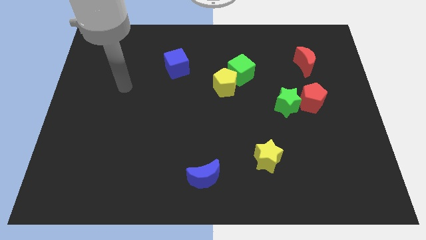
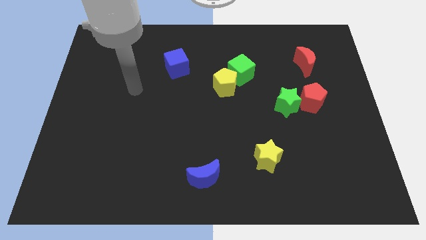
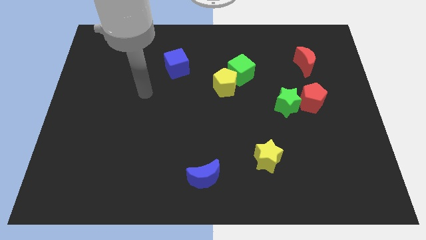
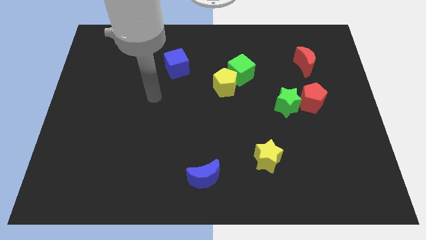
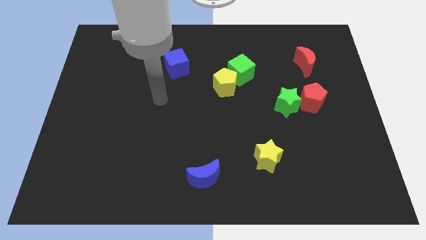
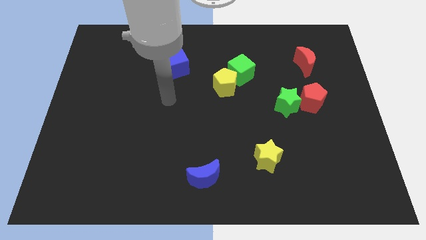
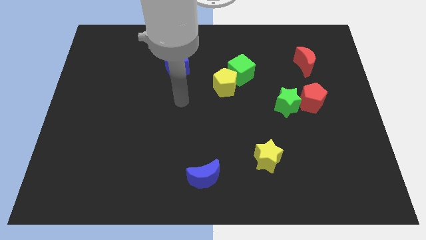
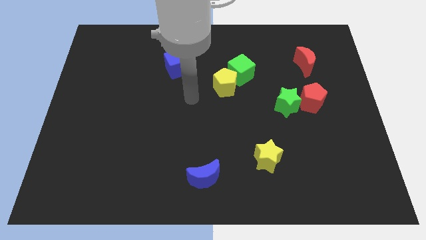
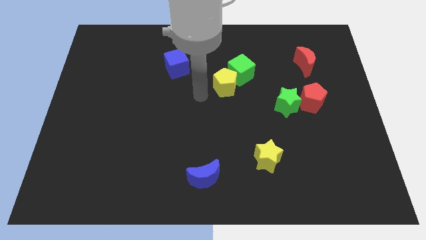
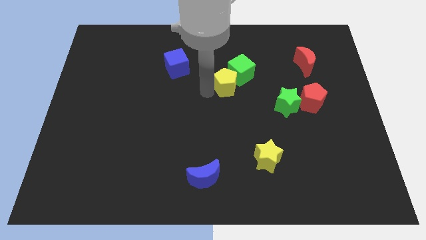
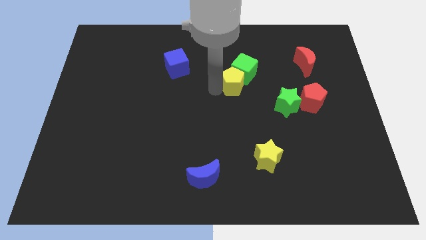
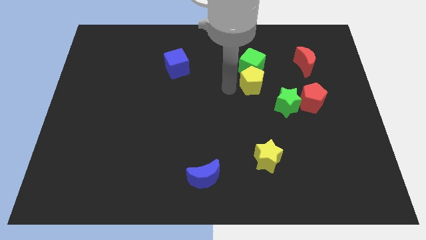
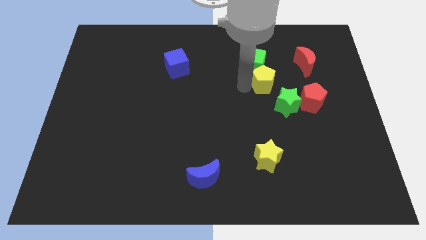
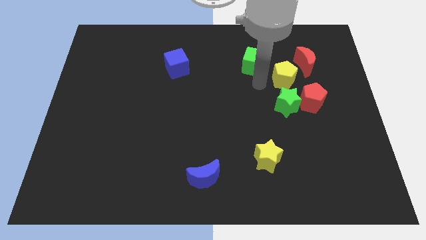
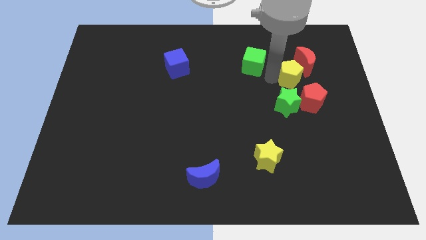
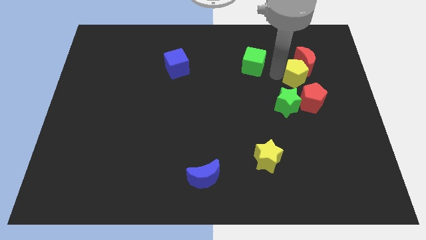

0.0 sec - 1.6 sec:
separate the green cube from the yellow pentagon

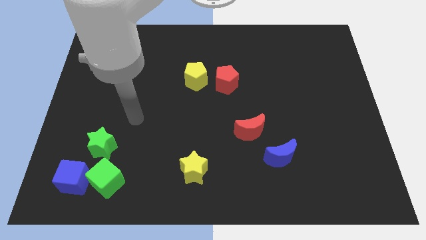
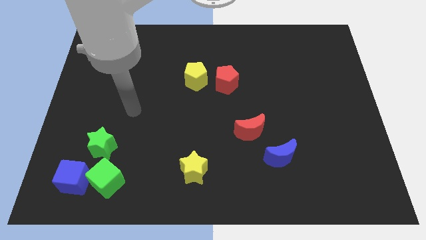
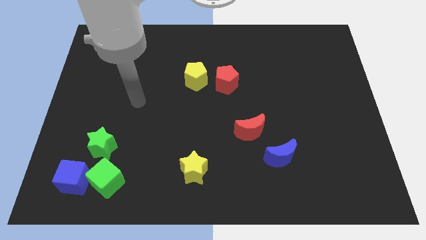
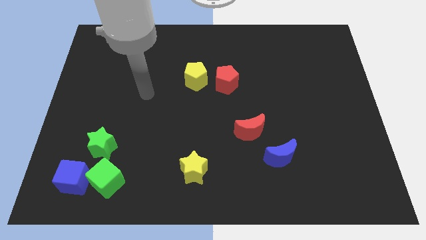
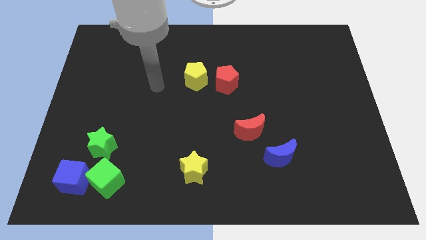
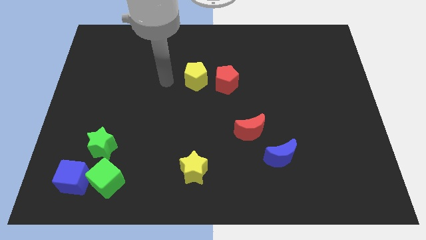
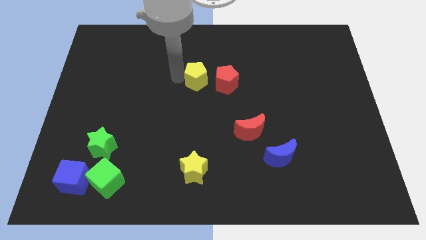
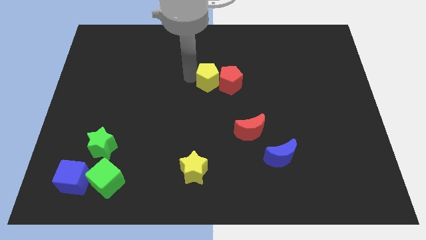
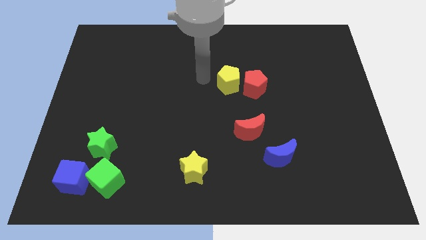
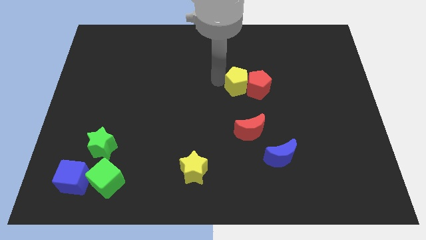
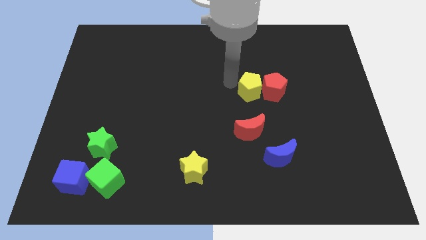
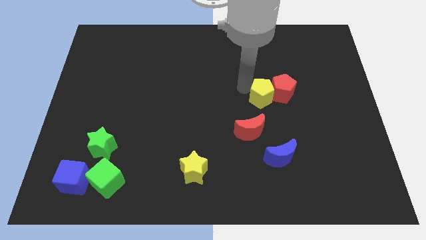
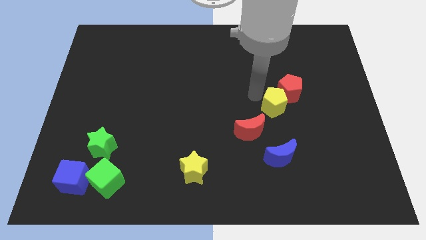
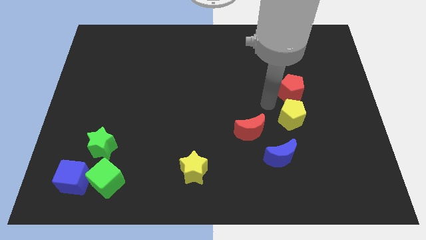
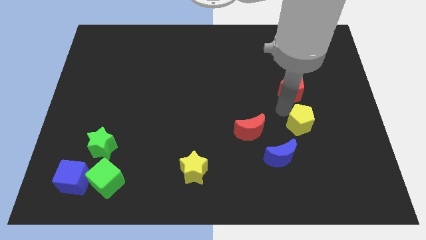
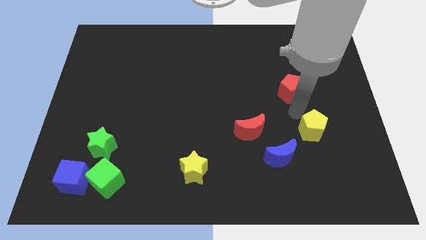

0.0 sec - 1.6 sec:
move the red pentagon away from the yellow pentagon

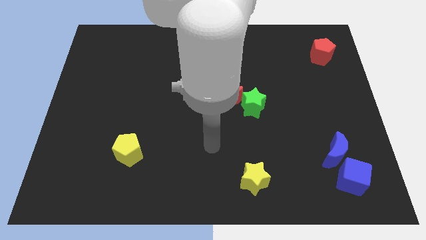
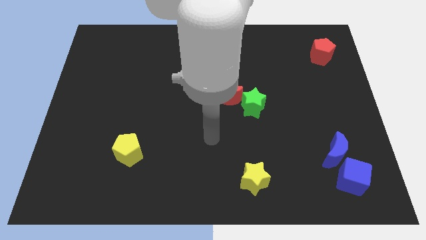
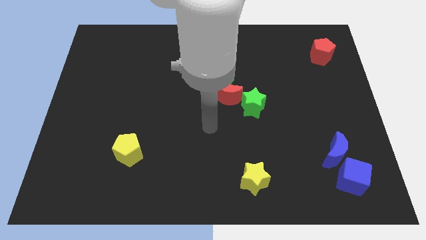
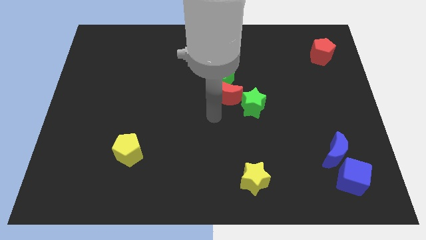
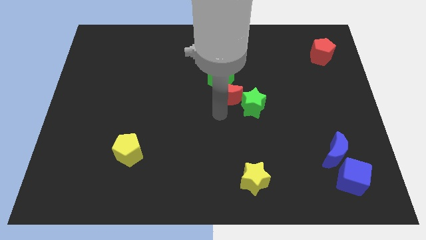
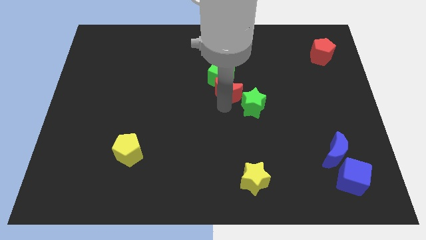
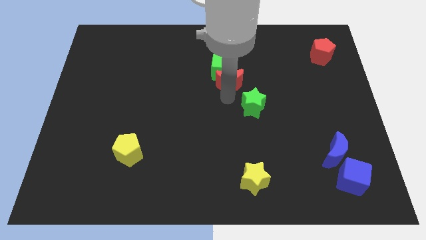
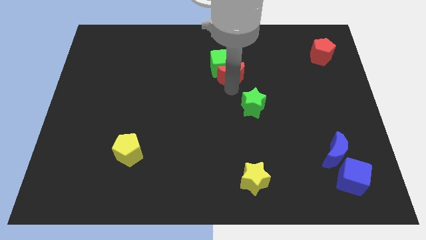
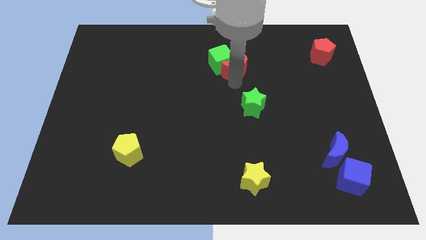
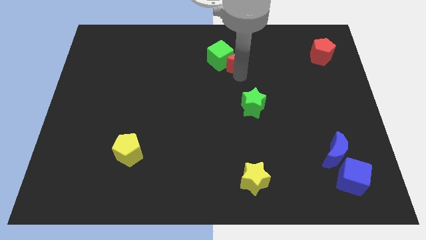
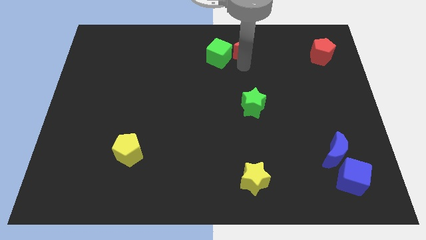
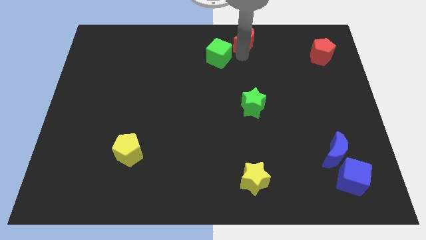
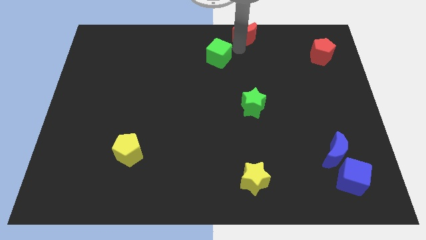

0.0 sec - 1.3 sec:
move the green cube away from the red moon

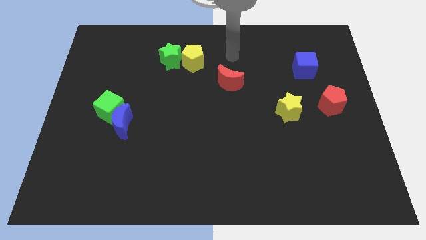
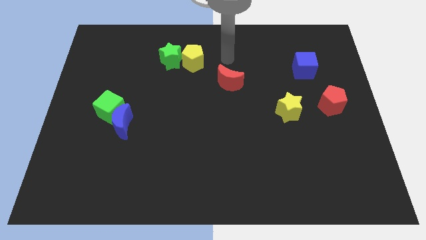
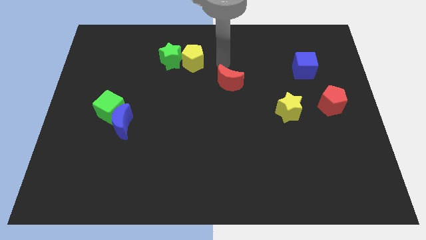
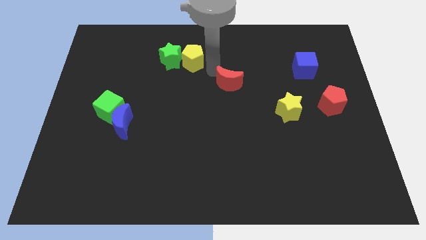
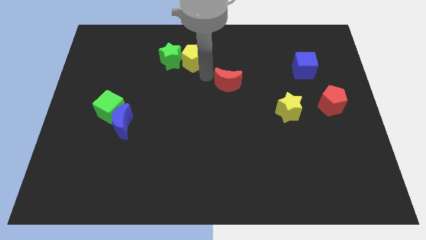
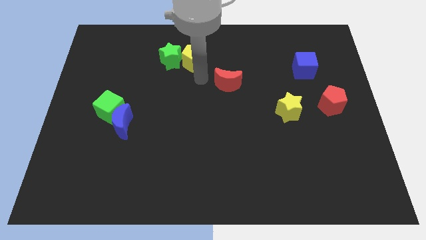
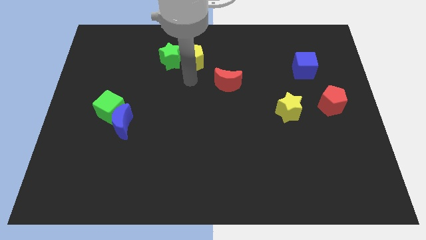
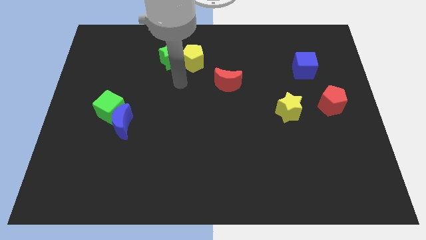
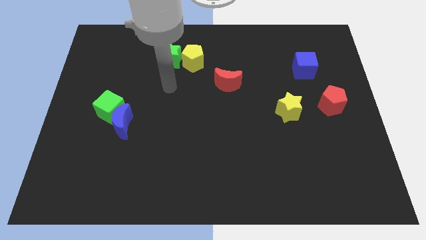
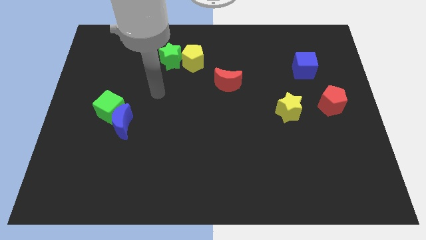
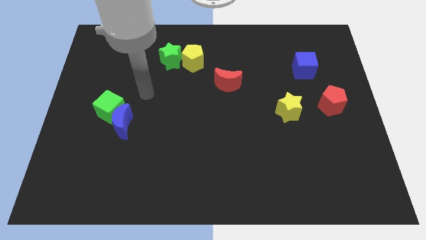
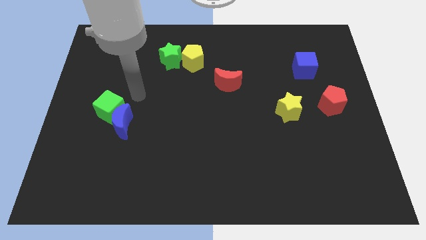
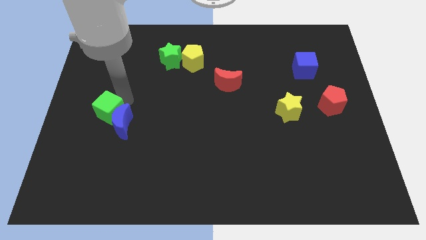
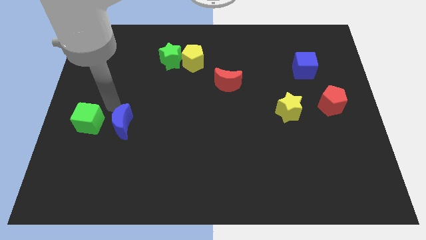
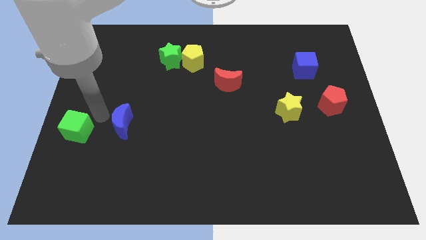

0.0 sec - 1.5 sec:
pull the blue moon apart from the green cube

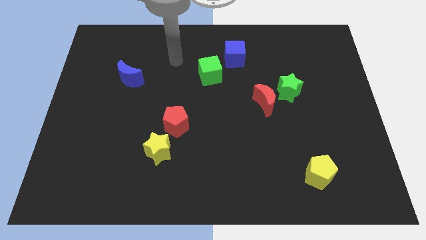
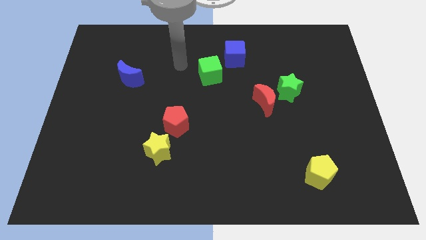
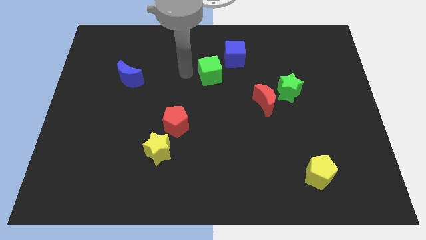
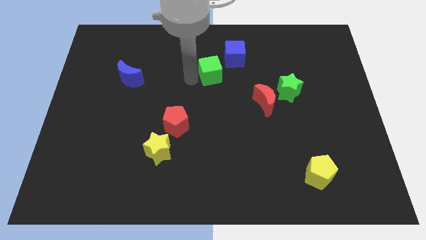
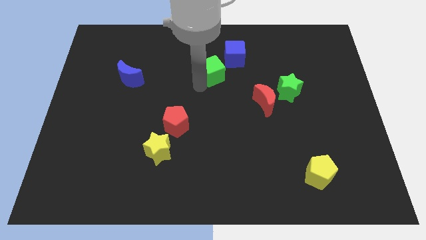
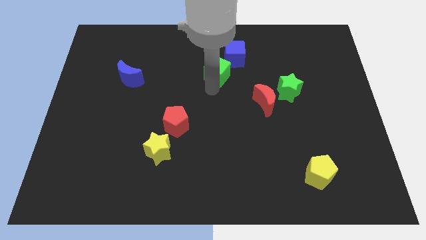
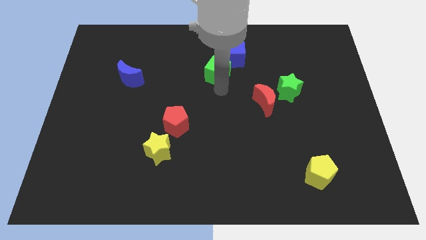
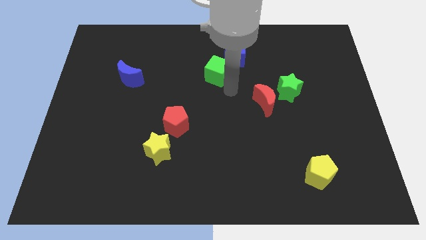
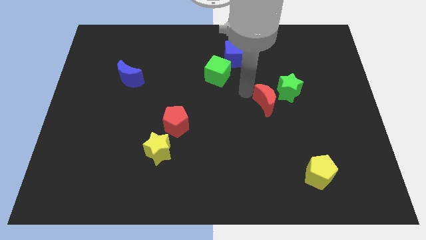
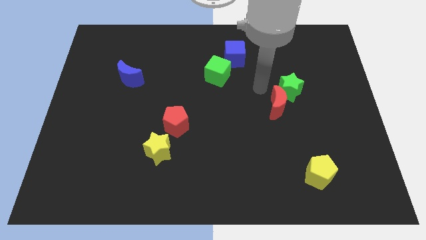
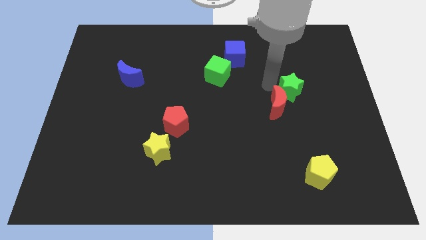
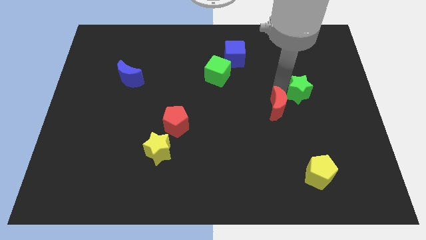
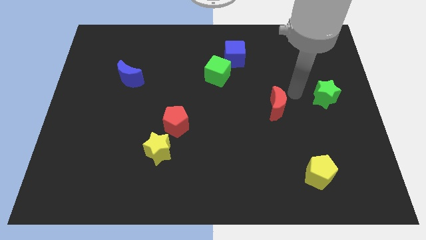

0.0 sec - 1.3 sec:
pull the red moon apart from the green star

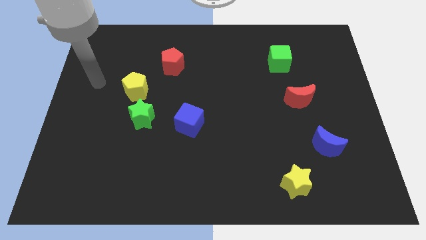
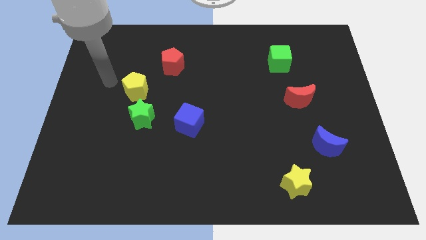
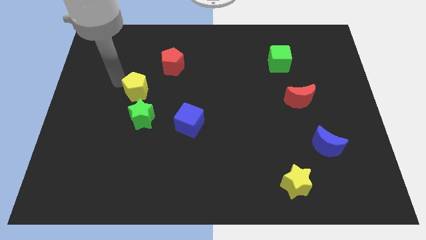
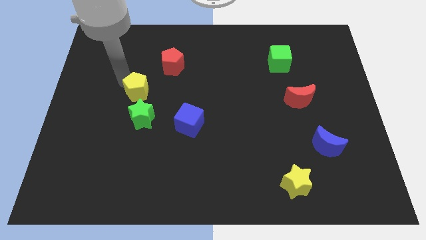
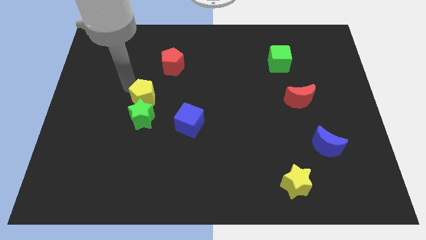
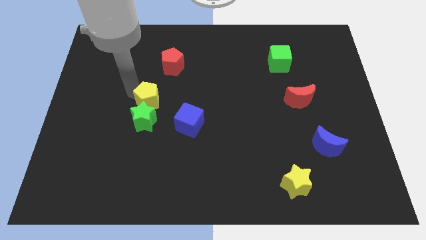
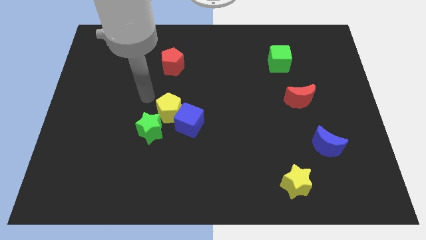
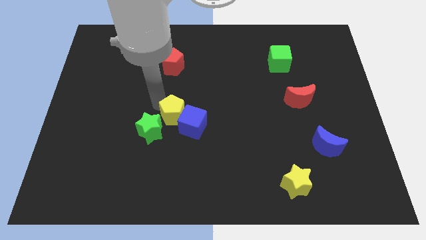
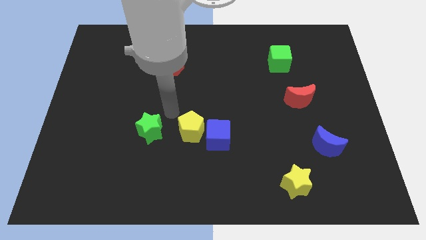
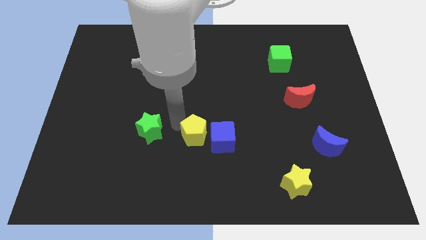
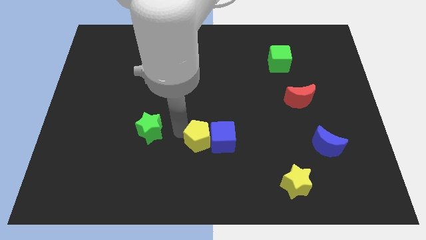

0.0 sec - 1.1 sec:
pull the green star apart from the yellow pentagon

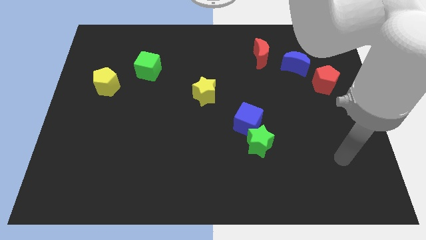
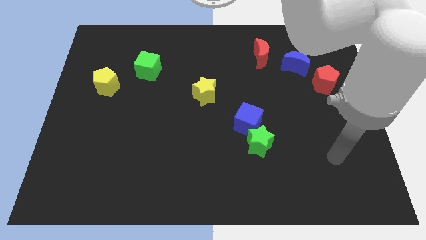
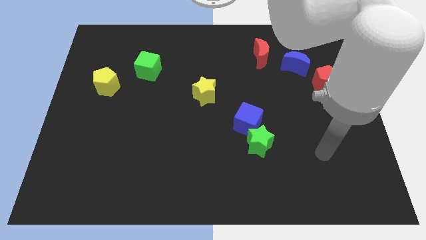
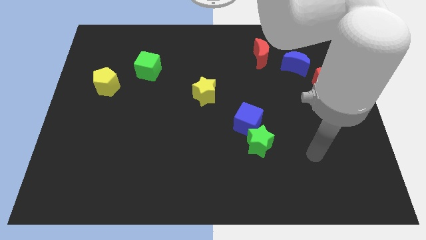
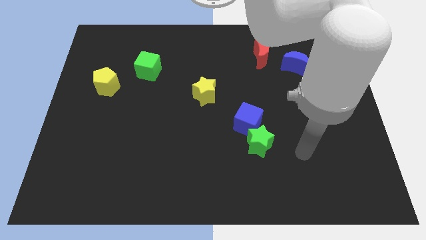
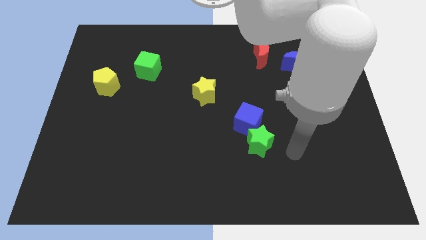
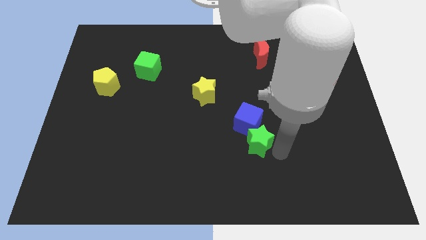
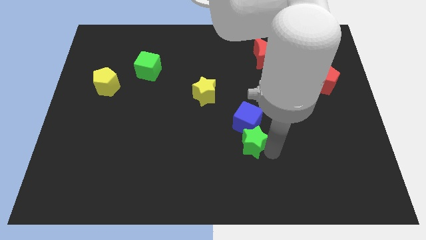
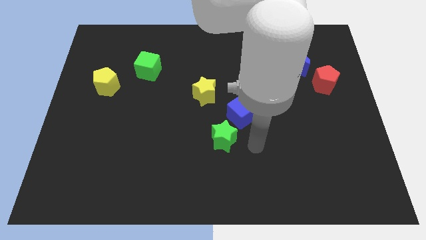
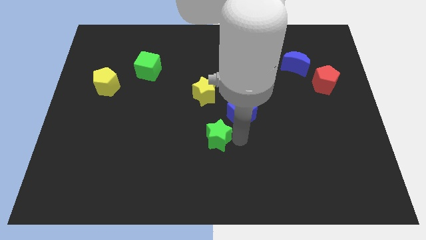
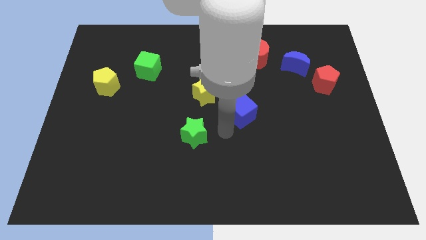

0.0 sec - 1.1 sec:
move the blue cube away from the green star
